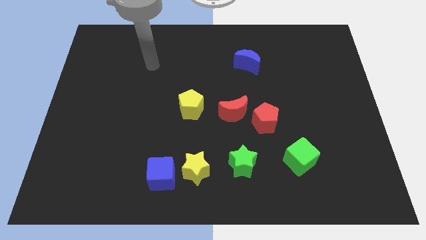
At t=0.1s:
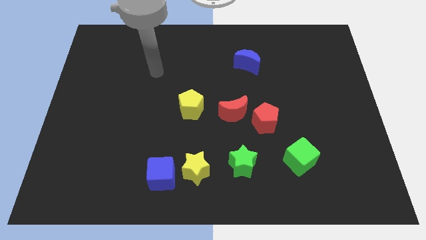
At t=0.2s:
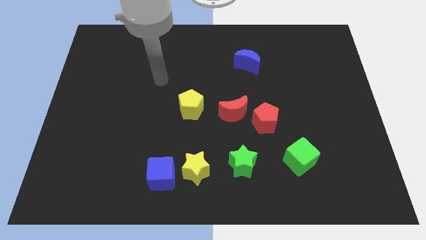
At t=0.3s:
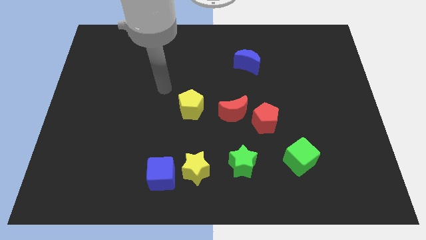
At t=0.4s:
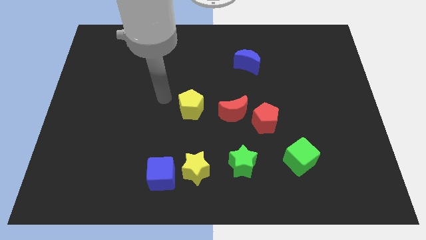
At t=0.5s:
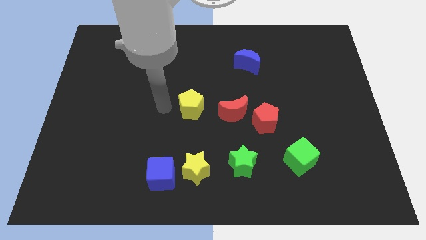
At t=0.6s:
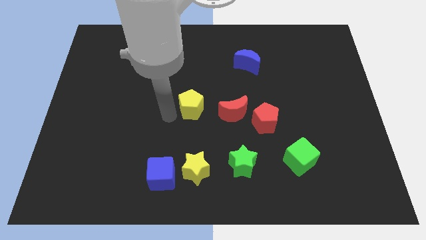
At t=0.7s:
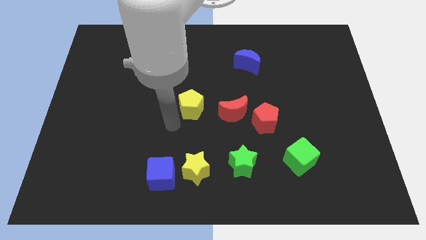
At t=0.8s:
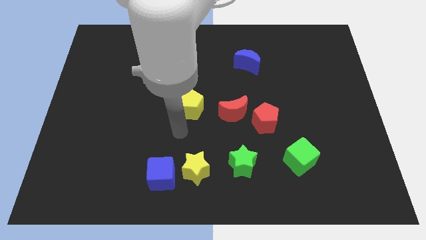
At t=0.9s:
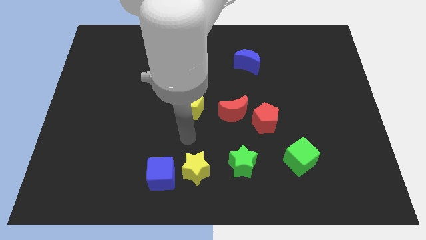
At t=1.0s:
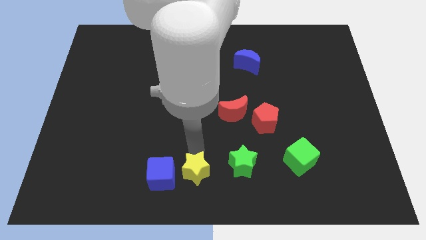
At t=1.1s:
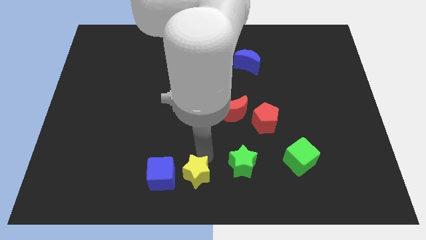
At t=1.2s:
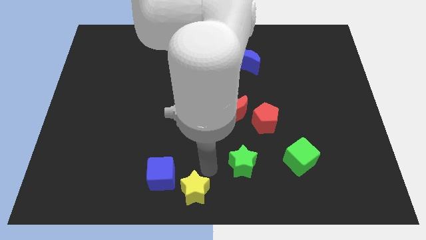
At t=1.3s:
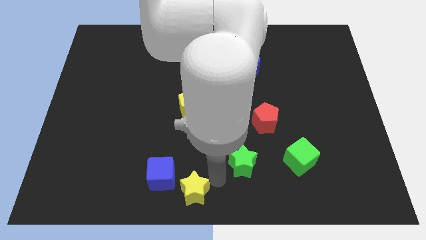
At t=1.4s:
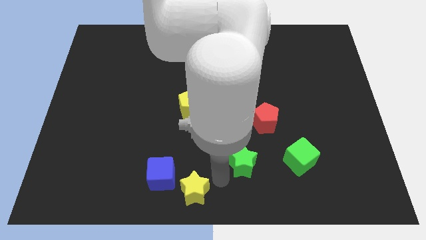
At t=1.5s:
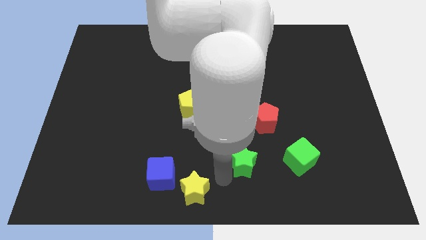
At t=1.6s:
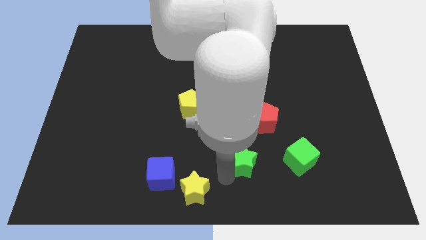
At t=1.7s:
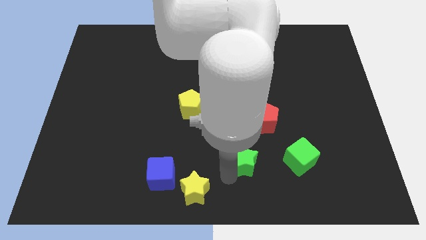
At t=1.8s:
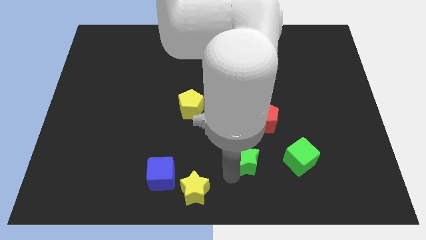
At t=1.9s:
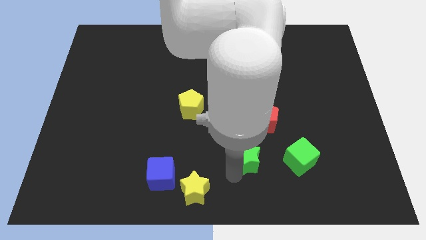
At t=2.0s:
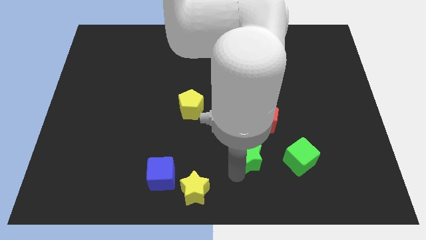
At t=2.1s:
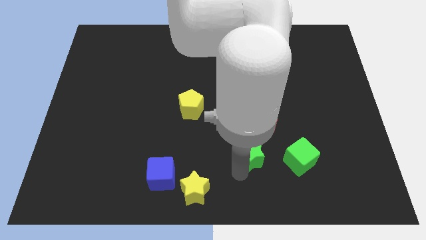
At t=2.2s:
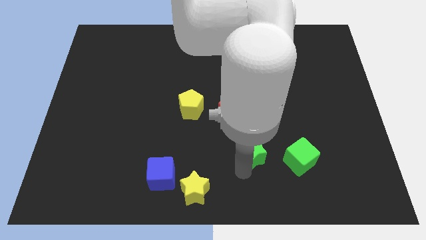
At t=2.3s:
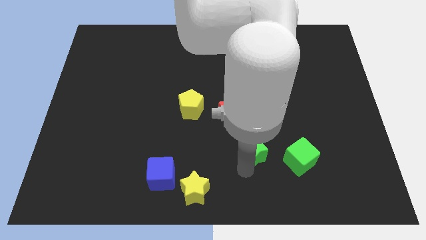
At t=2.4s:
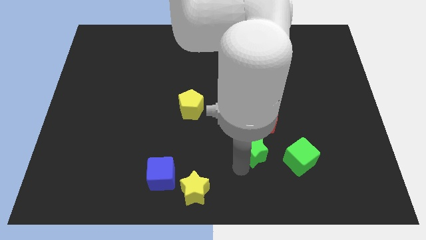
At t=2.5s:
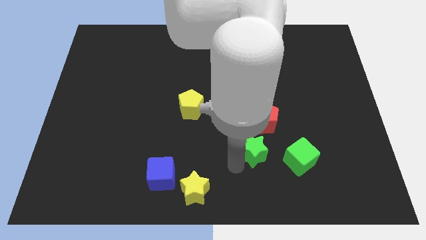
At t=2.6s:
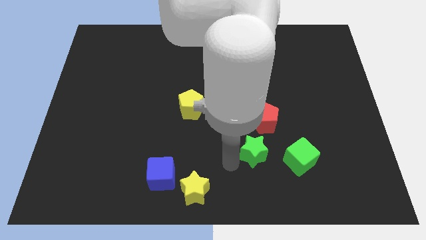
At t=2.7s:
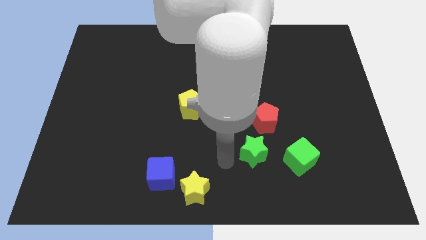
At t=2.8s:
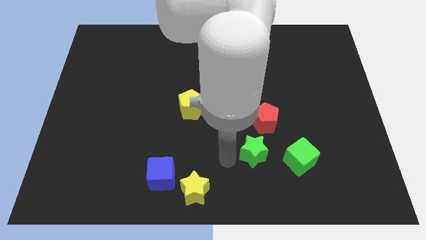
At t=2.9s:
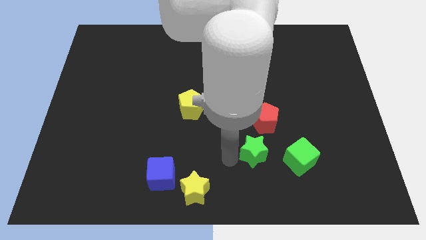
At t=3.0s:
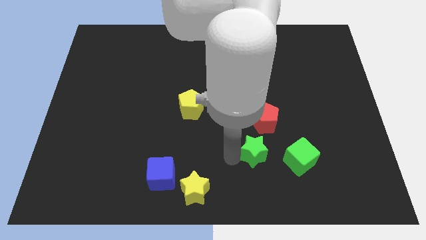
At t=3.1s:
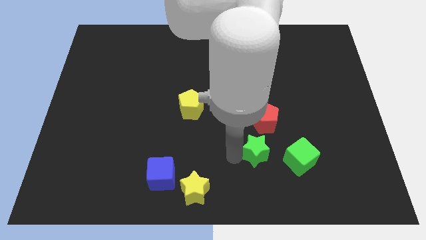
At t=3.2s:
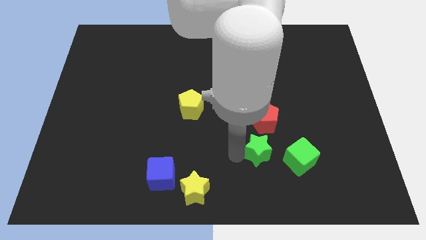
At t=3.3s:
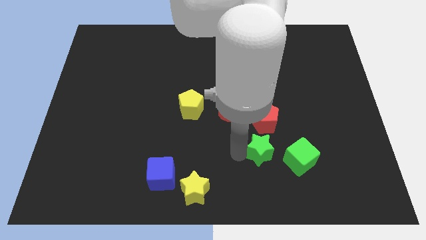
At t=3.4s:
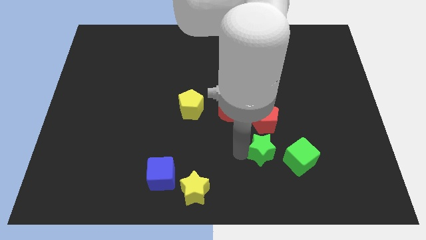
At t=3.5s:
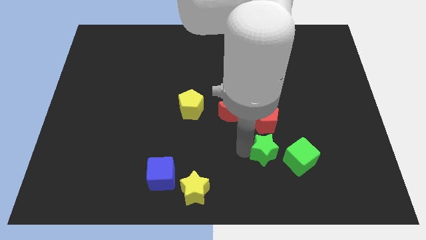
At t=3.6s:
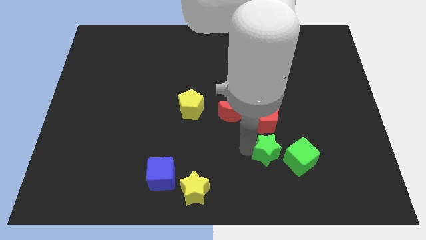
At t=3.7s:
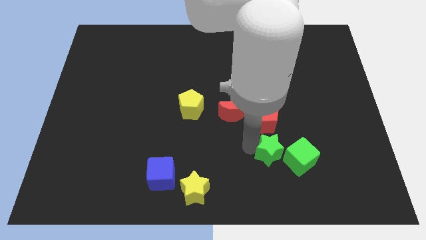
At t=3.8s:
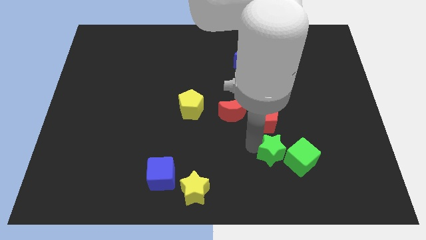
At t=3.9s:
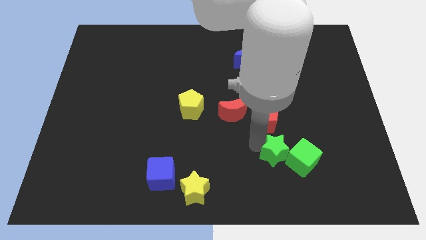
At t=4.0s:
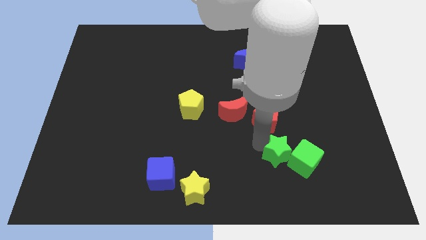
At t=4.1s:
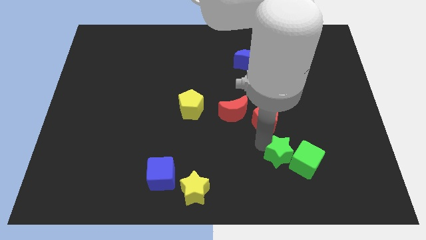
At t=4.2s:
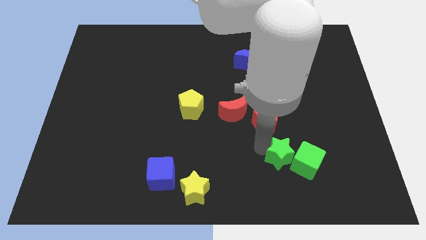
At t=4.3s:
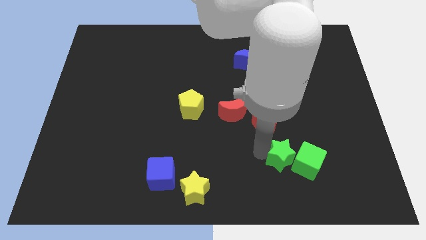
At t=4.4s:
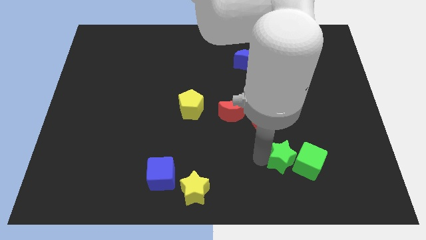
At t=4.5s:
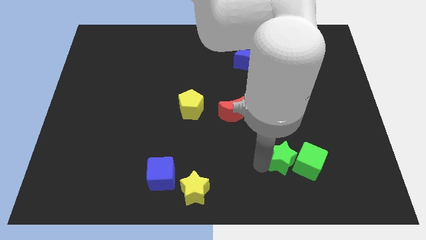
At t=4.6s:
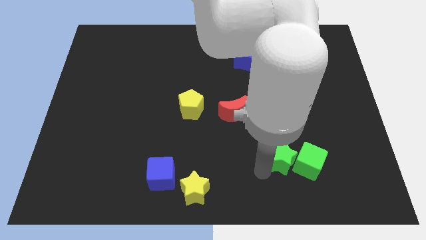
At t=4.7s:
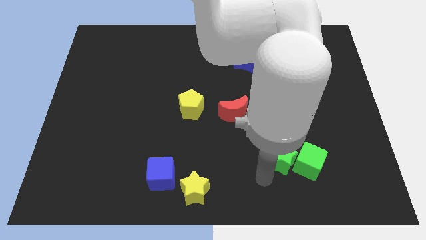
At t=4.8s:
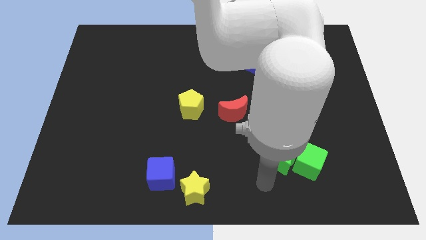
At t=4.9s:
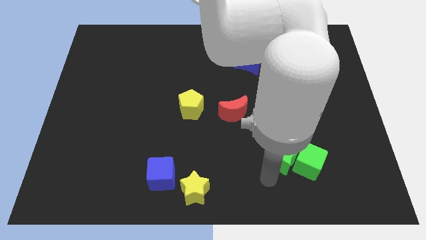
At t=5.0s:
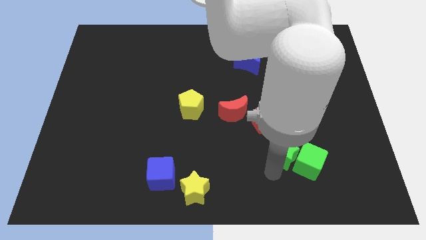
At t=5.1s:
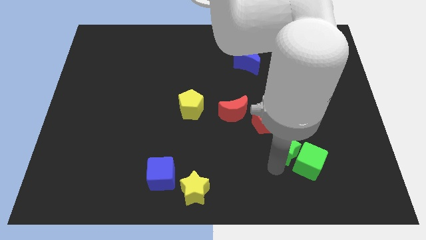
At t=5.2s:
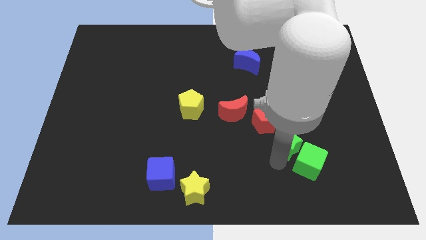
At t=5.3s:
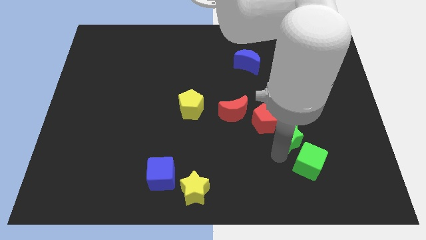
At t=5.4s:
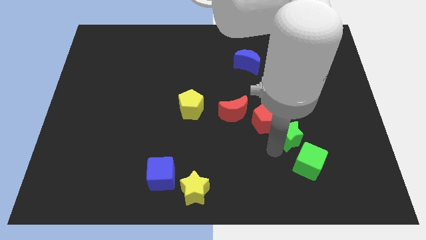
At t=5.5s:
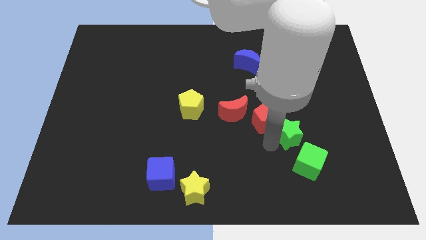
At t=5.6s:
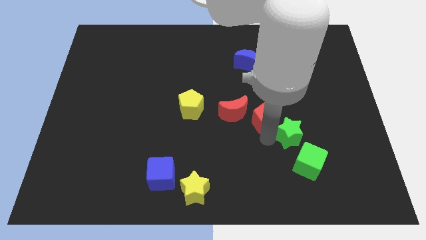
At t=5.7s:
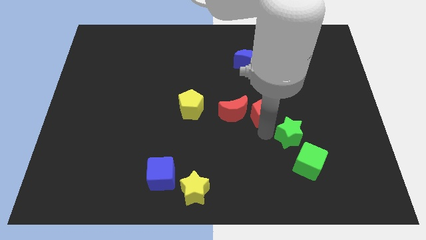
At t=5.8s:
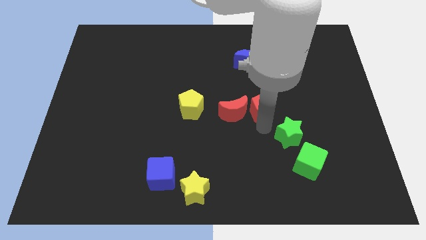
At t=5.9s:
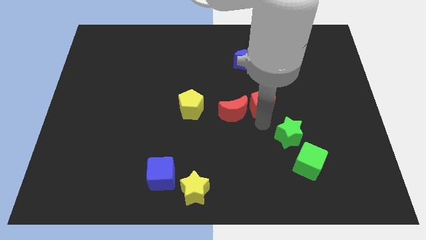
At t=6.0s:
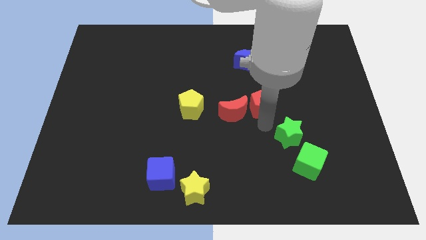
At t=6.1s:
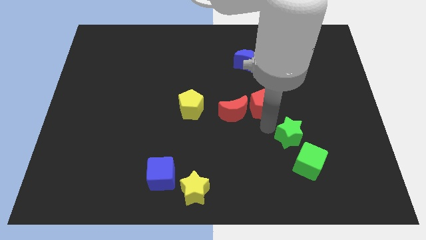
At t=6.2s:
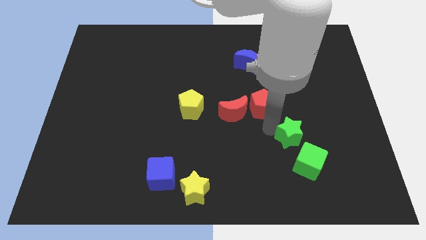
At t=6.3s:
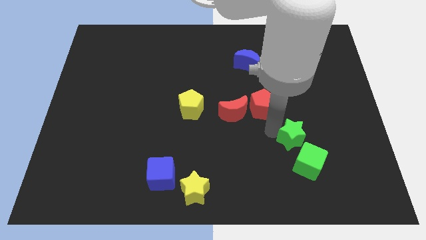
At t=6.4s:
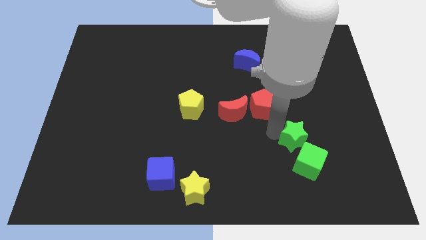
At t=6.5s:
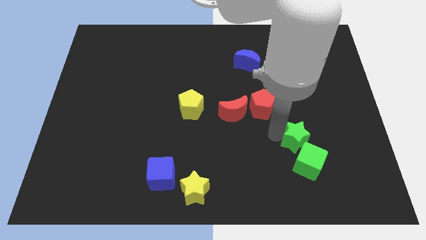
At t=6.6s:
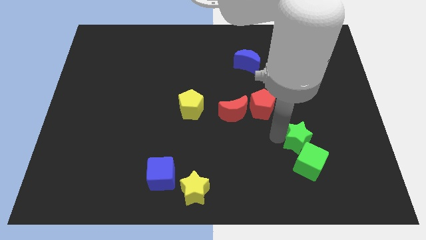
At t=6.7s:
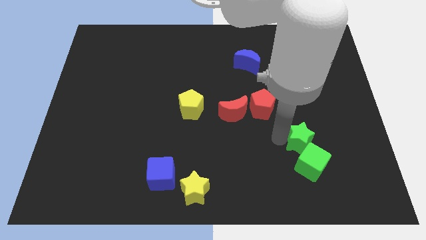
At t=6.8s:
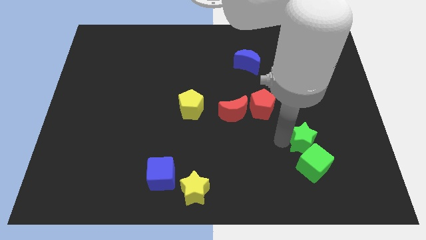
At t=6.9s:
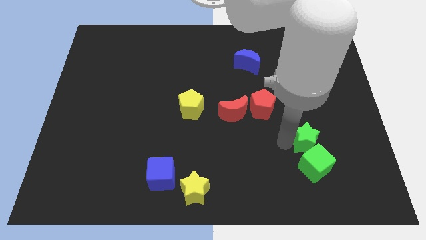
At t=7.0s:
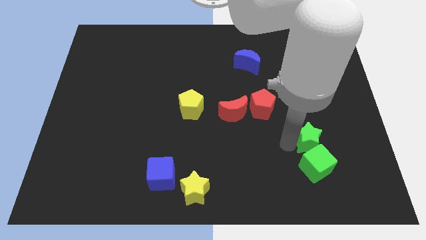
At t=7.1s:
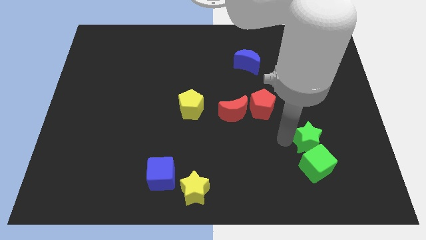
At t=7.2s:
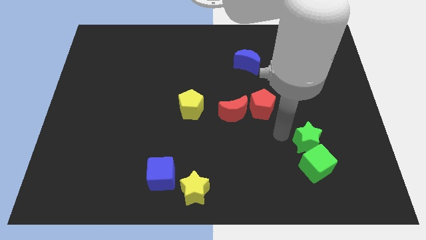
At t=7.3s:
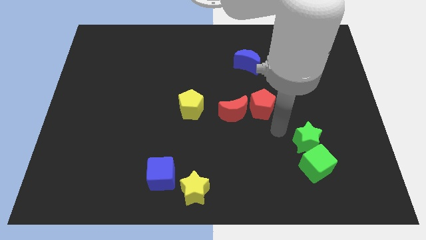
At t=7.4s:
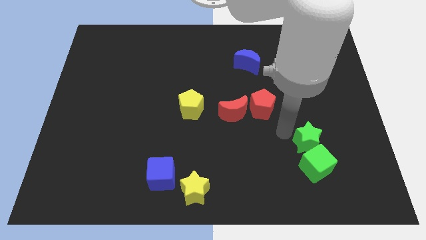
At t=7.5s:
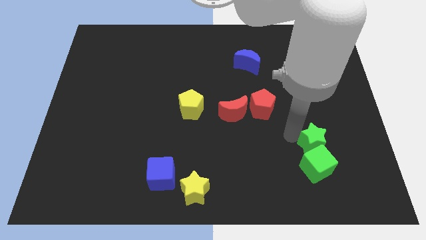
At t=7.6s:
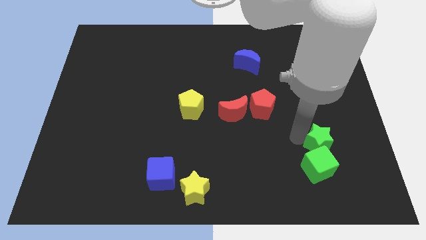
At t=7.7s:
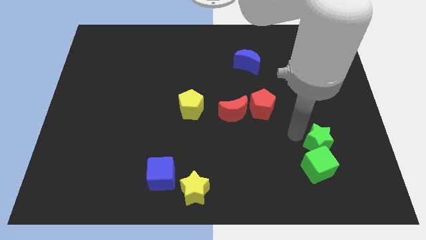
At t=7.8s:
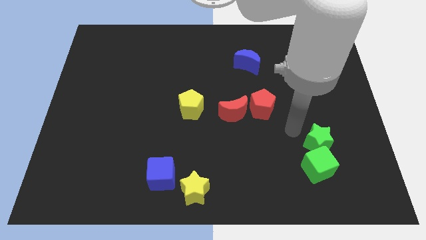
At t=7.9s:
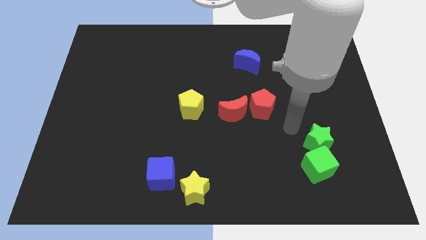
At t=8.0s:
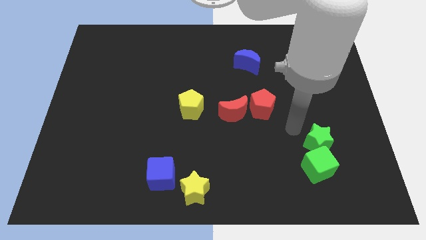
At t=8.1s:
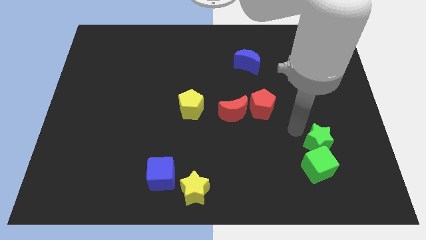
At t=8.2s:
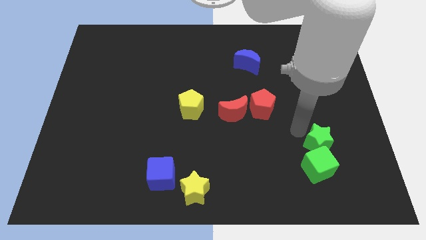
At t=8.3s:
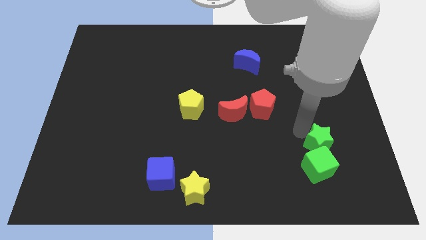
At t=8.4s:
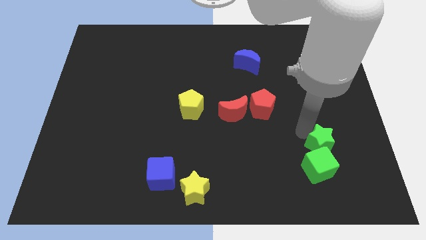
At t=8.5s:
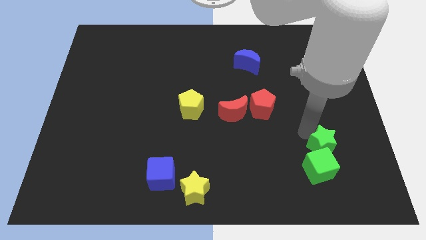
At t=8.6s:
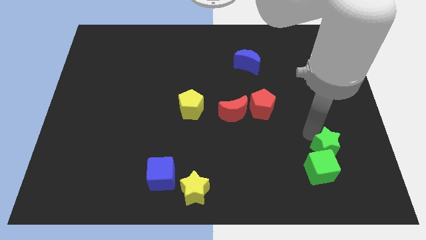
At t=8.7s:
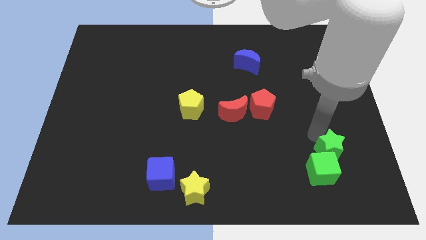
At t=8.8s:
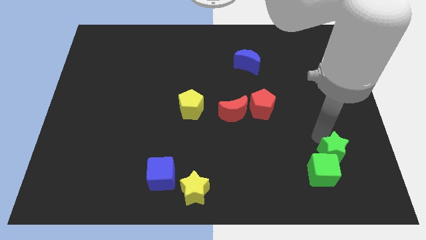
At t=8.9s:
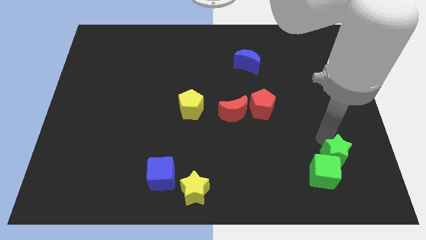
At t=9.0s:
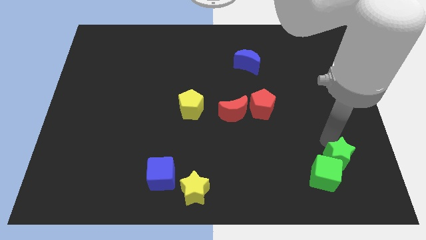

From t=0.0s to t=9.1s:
move the green star to the right side of the green cube
